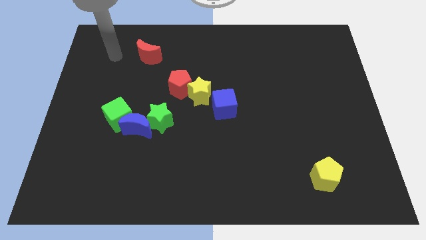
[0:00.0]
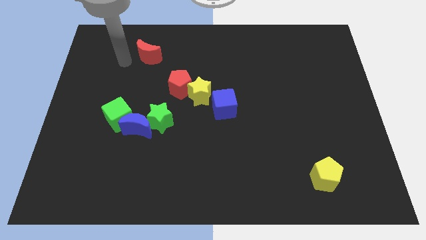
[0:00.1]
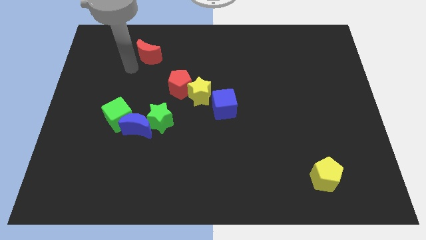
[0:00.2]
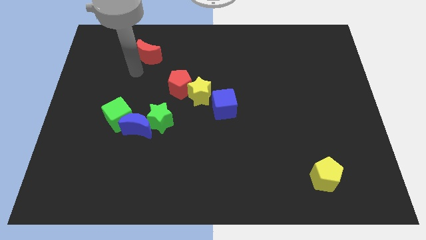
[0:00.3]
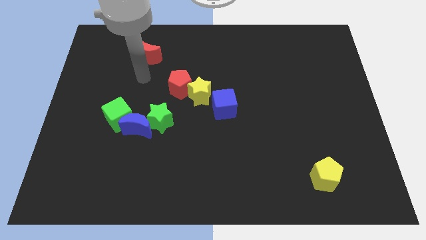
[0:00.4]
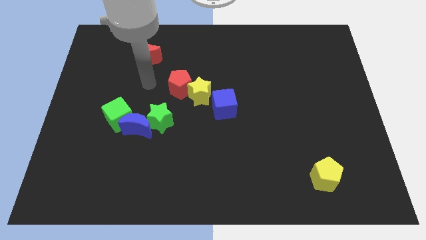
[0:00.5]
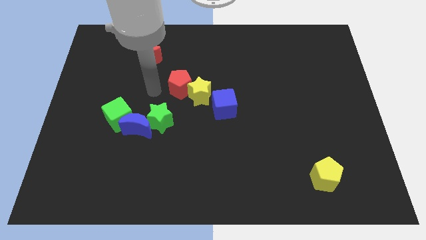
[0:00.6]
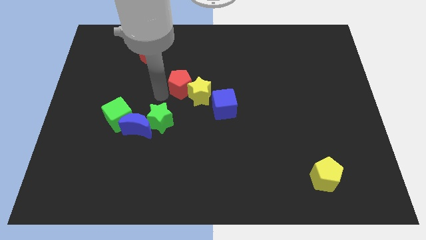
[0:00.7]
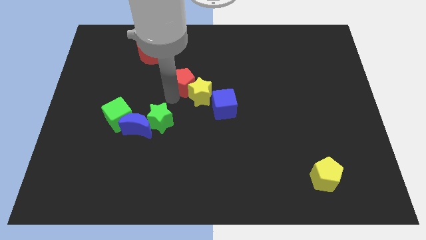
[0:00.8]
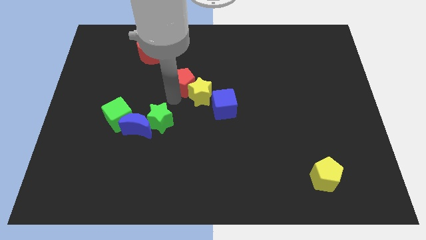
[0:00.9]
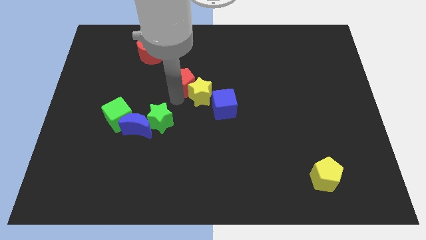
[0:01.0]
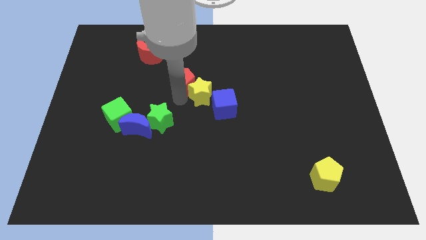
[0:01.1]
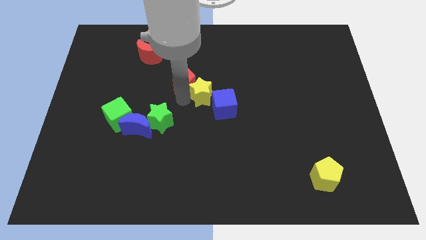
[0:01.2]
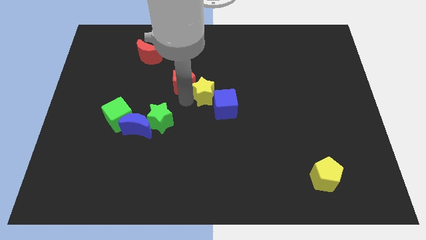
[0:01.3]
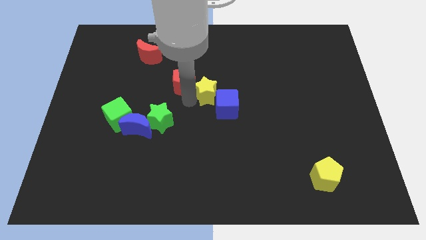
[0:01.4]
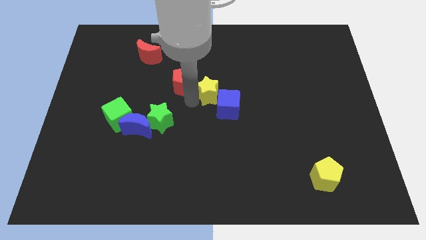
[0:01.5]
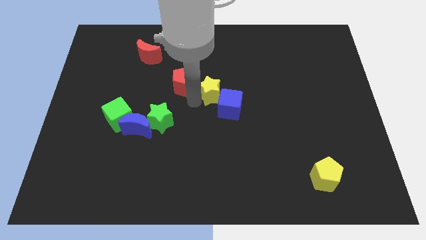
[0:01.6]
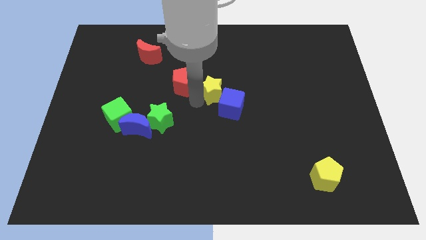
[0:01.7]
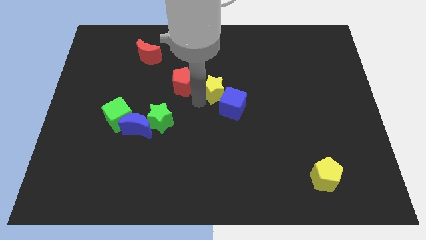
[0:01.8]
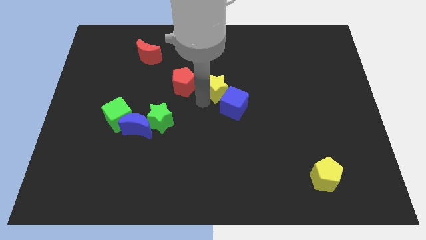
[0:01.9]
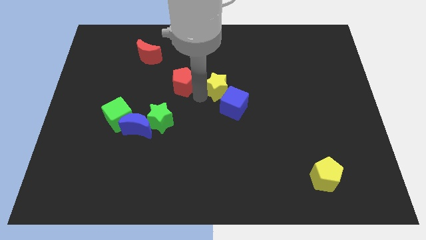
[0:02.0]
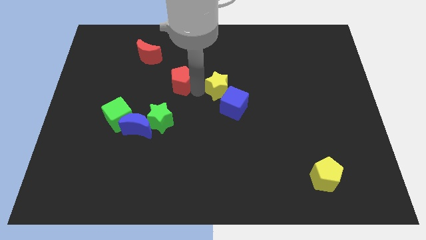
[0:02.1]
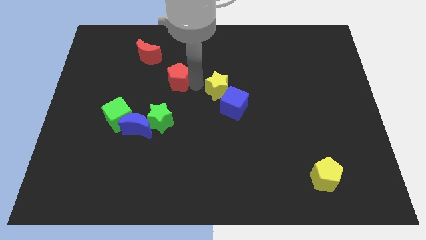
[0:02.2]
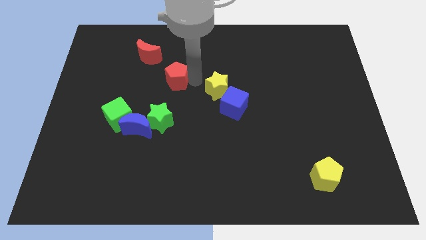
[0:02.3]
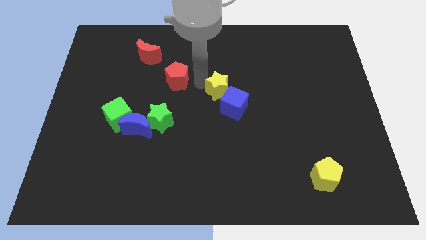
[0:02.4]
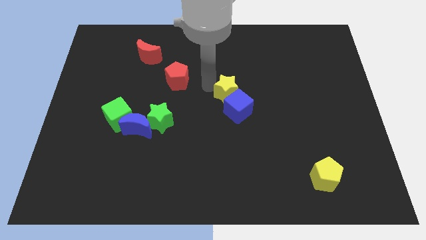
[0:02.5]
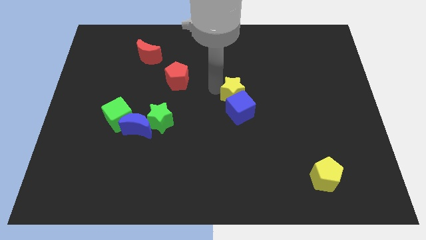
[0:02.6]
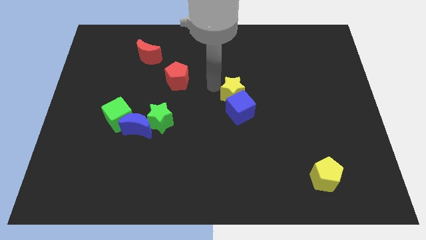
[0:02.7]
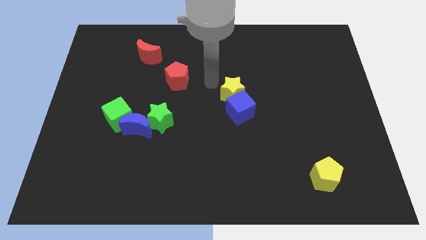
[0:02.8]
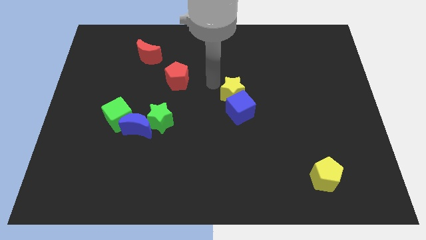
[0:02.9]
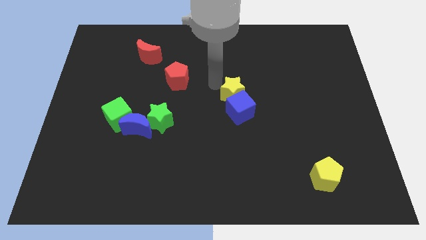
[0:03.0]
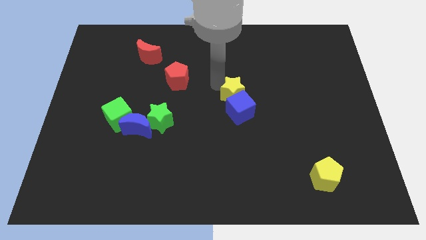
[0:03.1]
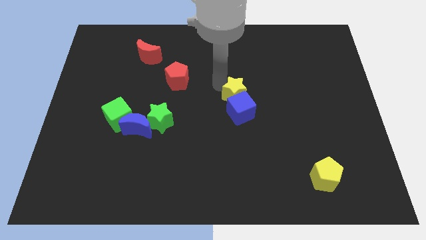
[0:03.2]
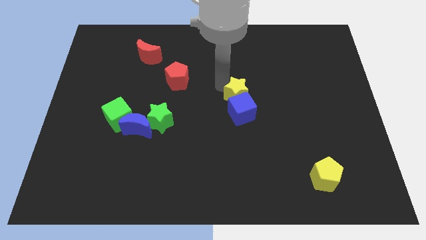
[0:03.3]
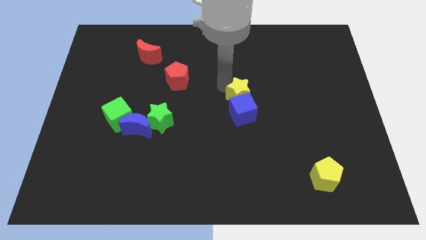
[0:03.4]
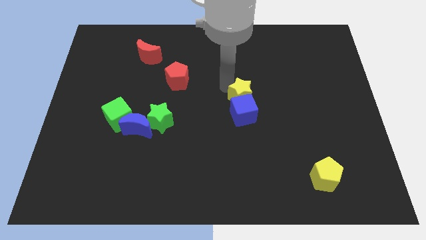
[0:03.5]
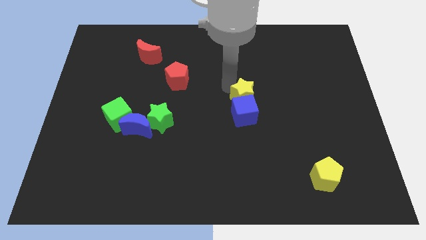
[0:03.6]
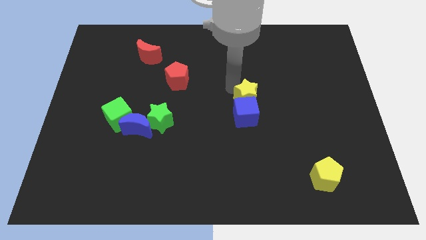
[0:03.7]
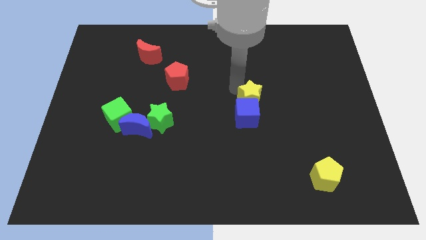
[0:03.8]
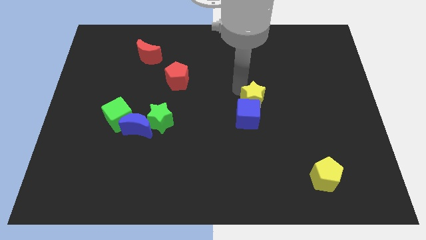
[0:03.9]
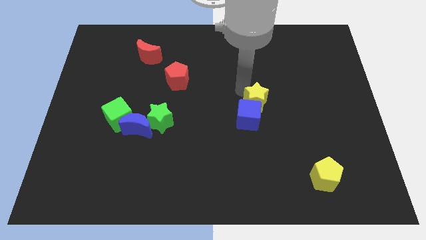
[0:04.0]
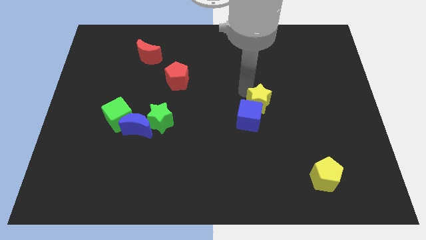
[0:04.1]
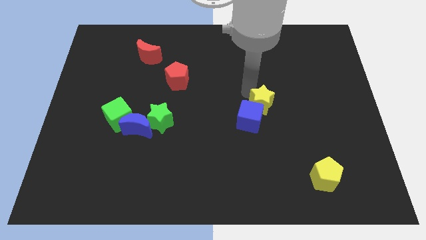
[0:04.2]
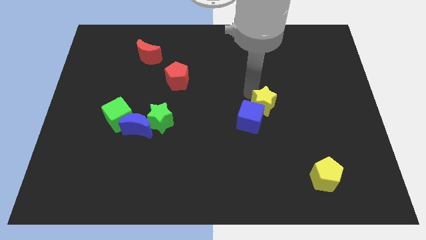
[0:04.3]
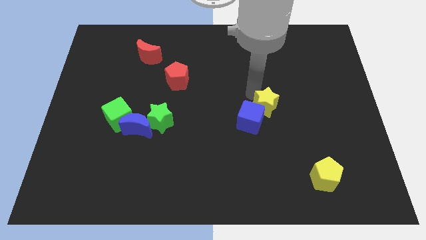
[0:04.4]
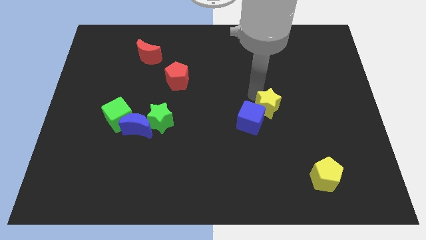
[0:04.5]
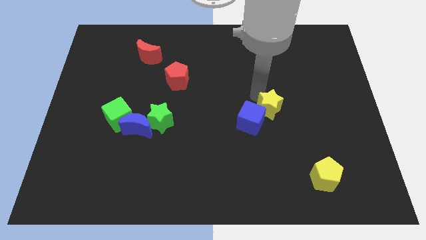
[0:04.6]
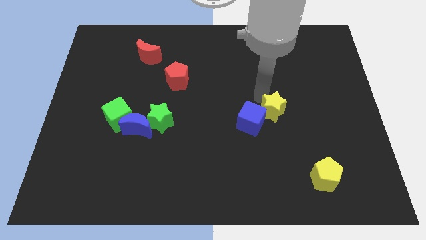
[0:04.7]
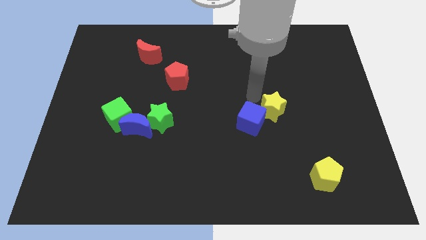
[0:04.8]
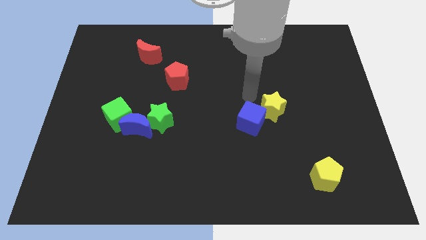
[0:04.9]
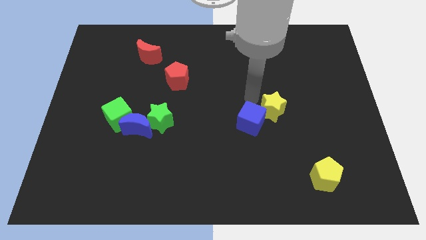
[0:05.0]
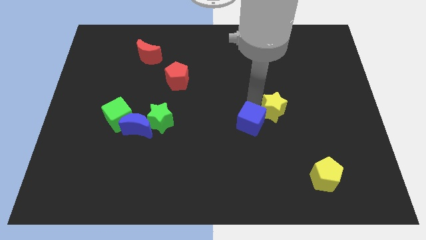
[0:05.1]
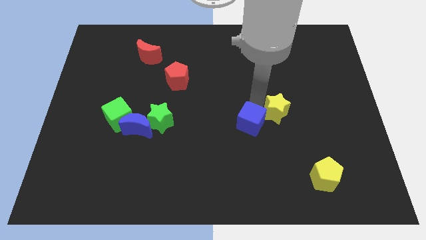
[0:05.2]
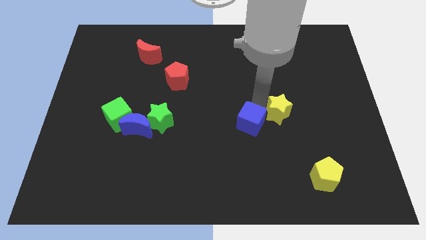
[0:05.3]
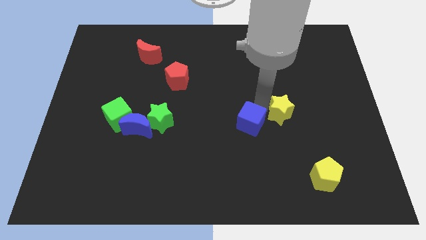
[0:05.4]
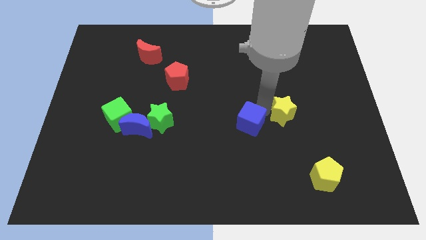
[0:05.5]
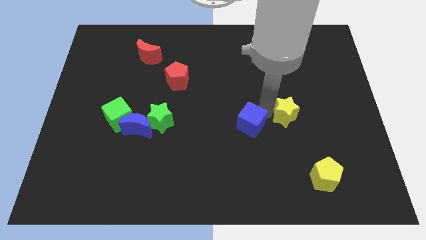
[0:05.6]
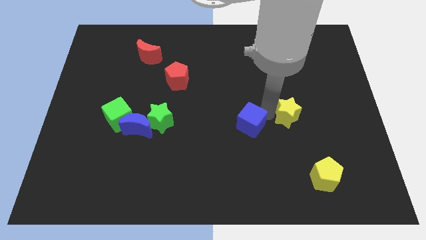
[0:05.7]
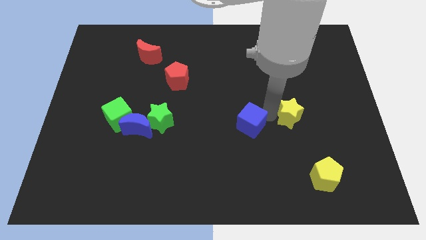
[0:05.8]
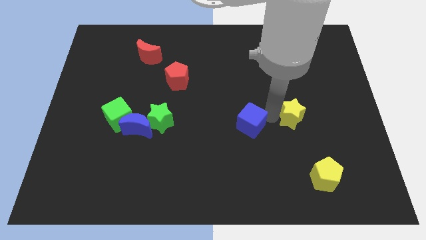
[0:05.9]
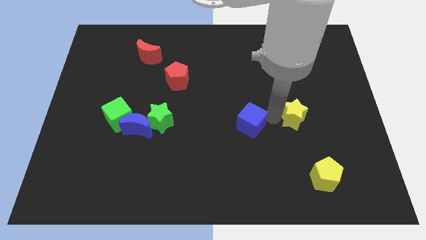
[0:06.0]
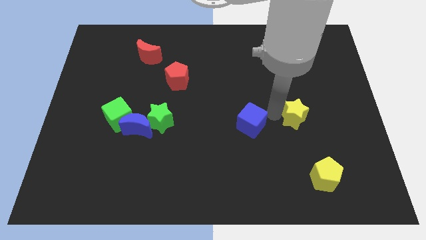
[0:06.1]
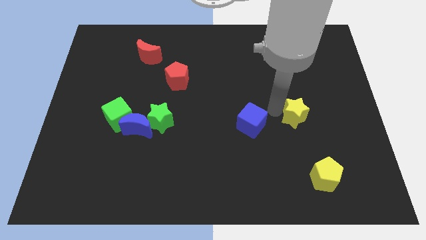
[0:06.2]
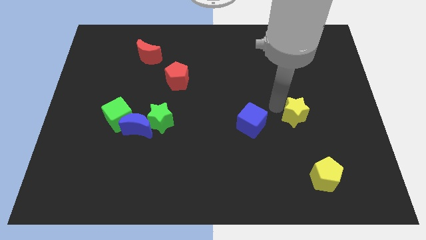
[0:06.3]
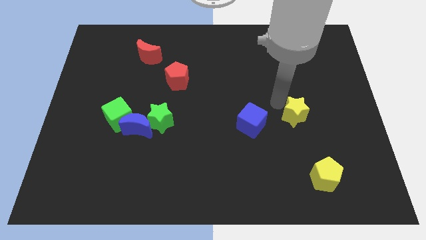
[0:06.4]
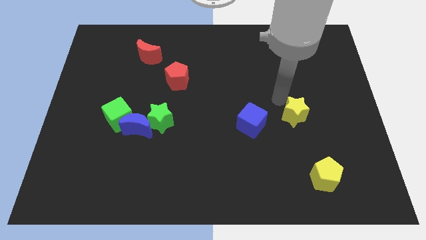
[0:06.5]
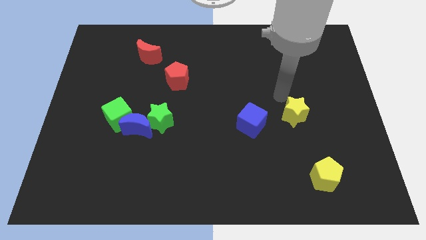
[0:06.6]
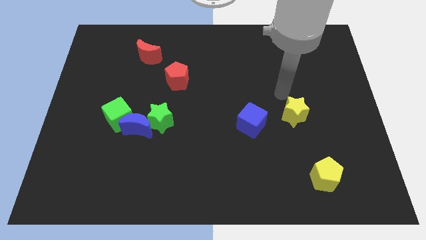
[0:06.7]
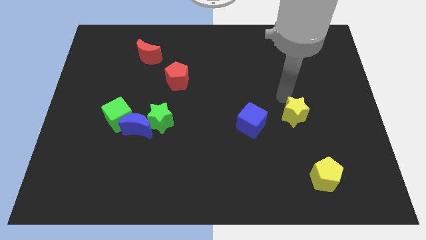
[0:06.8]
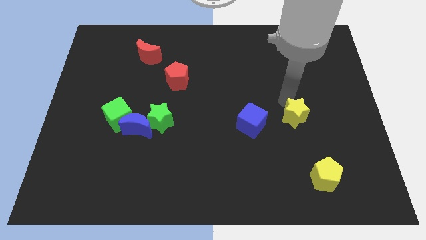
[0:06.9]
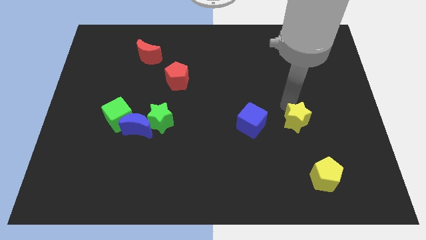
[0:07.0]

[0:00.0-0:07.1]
push the yellow star to the top side of the yellow pentagon

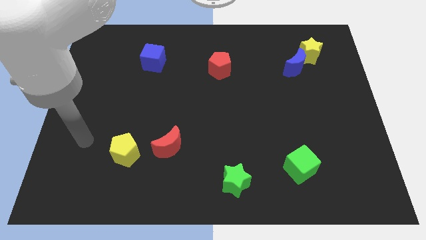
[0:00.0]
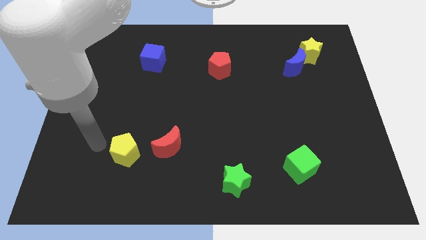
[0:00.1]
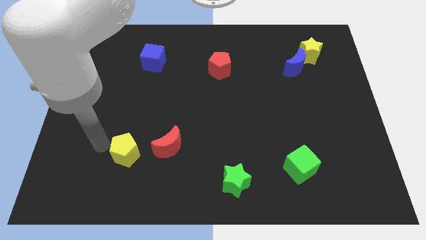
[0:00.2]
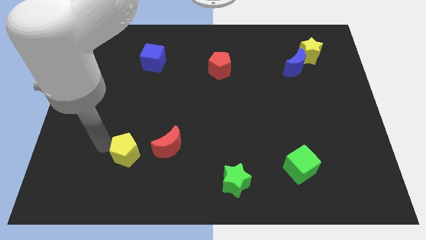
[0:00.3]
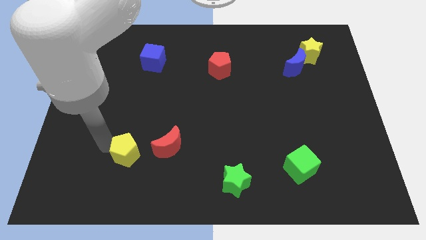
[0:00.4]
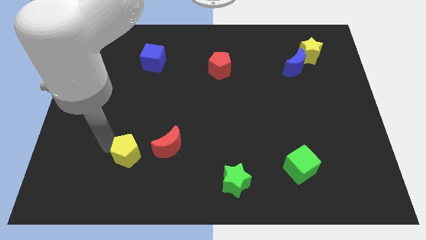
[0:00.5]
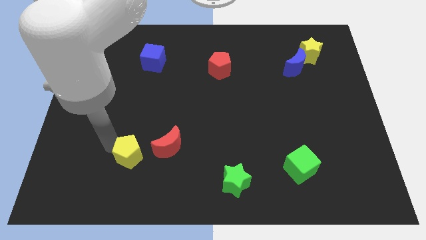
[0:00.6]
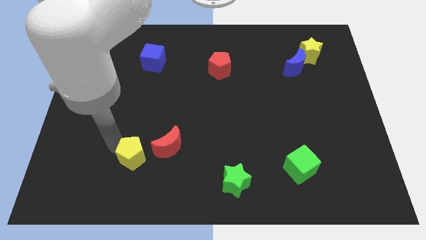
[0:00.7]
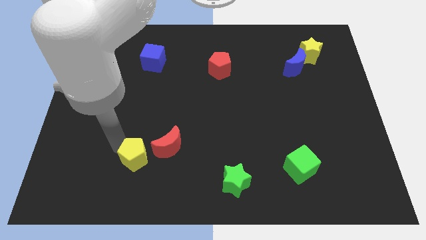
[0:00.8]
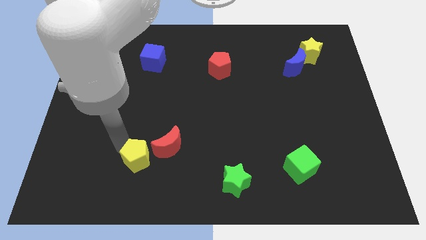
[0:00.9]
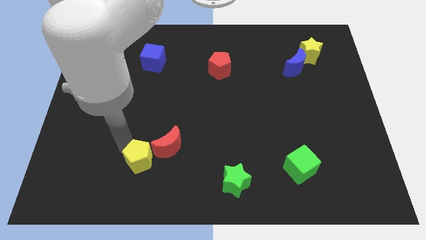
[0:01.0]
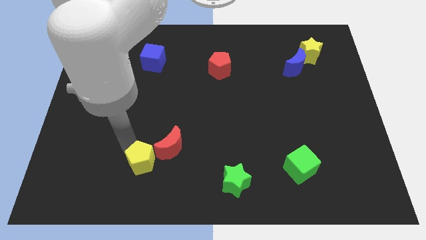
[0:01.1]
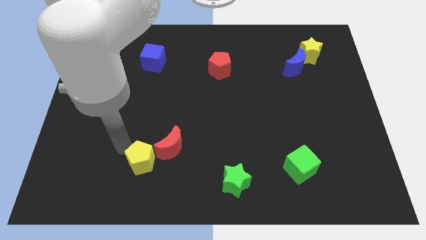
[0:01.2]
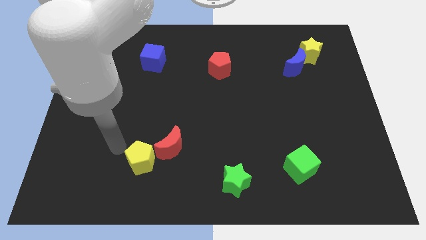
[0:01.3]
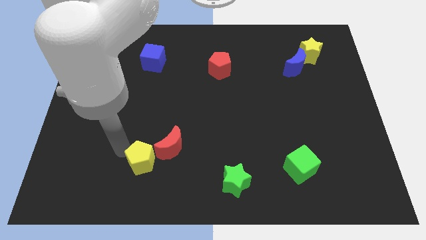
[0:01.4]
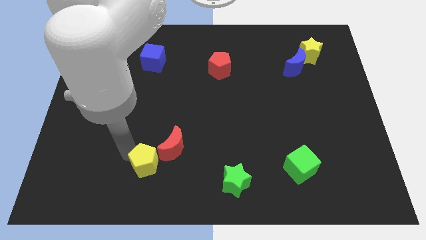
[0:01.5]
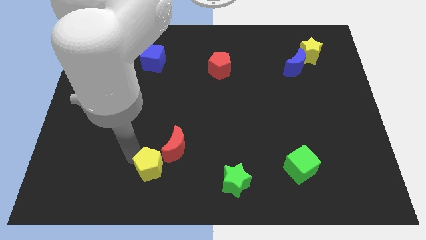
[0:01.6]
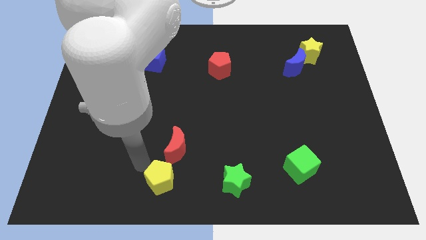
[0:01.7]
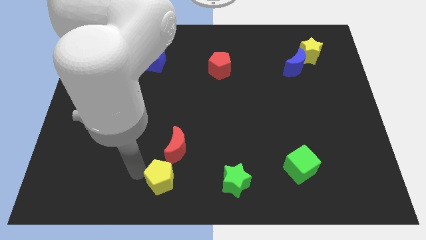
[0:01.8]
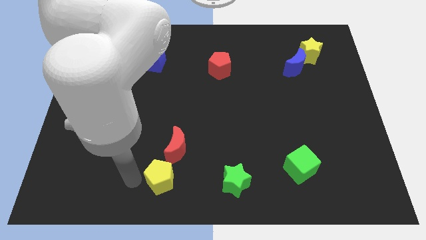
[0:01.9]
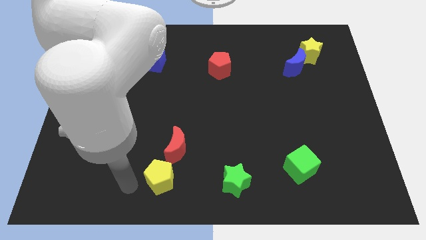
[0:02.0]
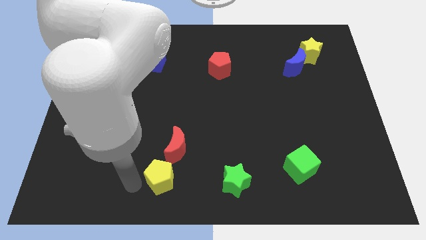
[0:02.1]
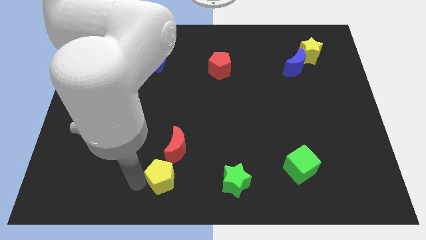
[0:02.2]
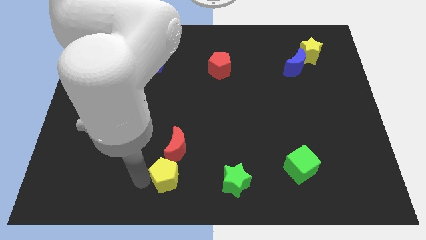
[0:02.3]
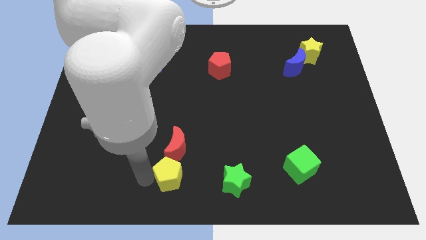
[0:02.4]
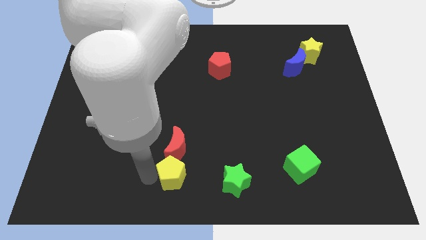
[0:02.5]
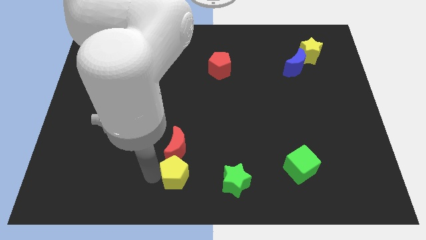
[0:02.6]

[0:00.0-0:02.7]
push the yellow pentagon to the bottom right of the red moon
